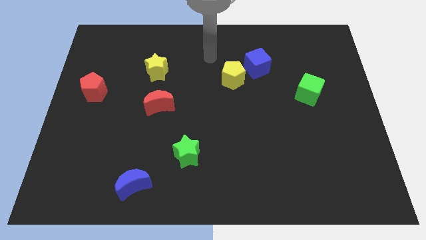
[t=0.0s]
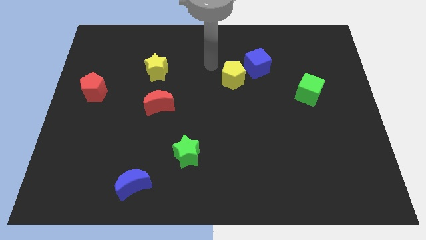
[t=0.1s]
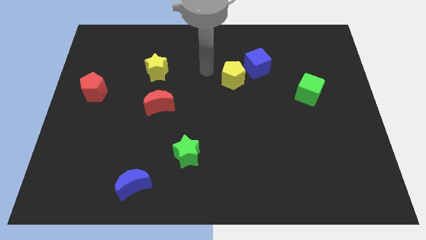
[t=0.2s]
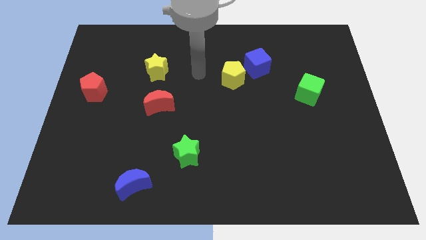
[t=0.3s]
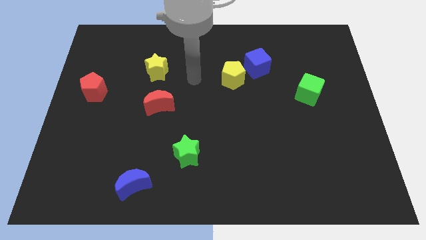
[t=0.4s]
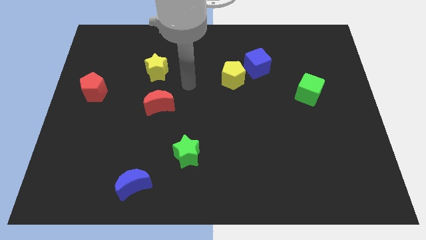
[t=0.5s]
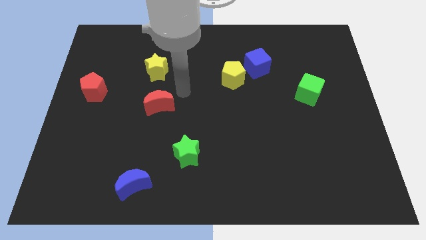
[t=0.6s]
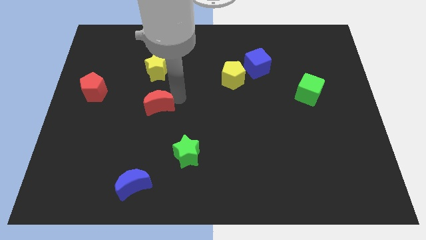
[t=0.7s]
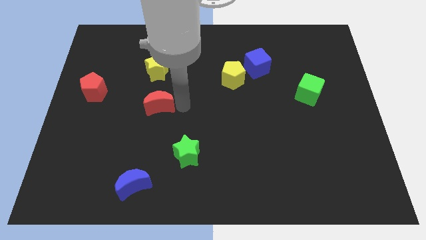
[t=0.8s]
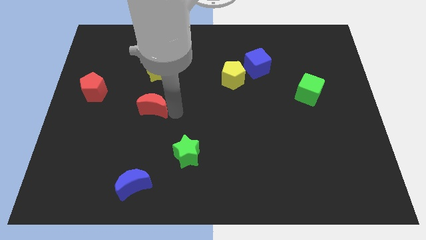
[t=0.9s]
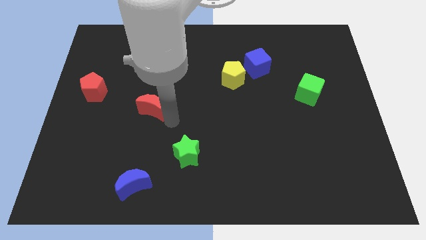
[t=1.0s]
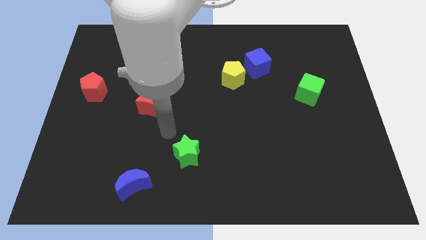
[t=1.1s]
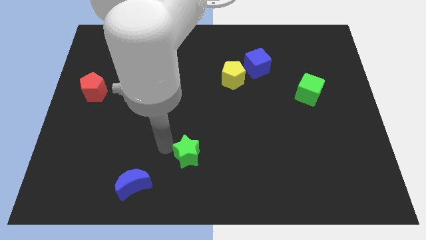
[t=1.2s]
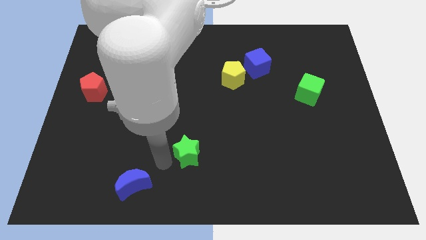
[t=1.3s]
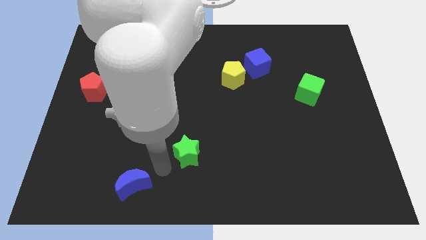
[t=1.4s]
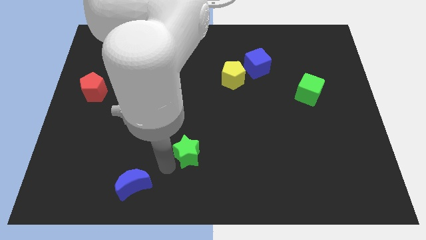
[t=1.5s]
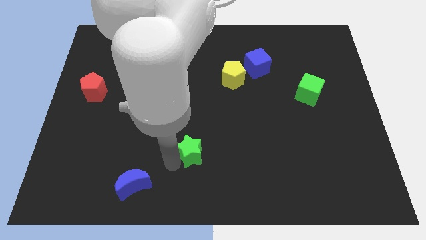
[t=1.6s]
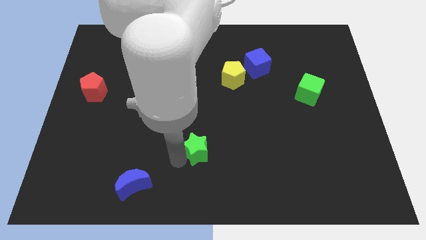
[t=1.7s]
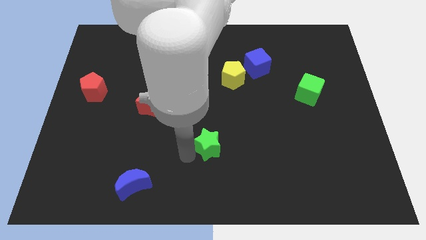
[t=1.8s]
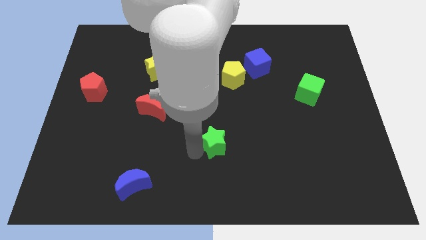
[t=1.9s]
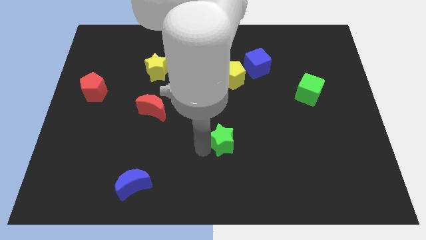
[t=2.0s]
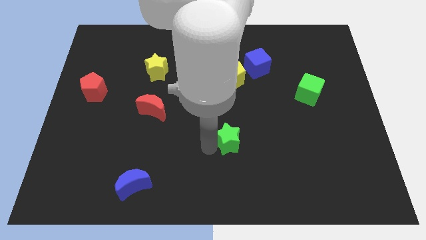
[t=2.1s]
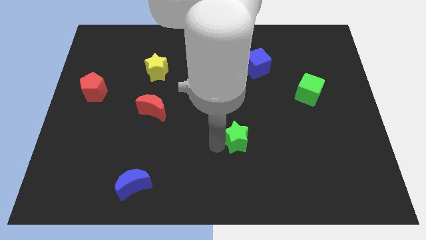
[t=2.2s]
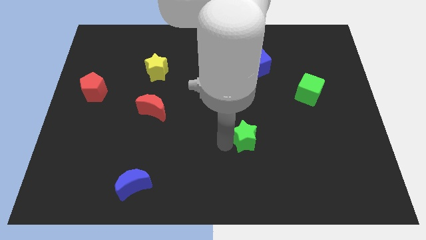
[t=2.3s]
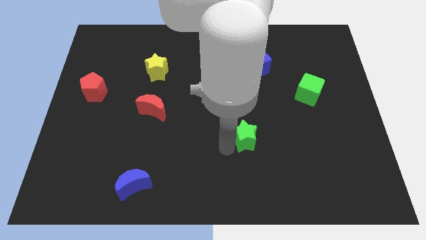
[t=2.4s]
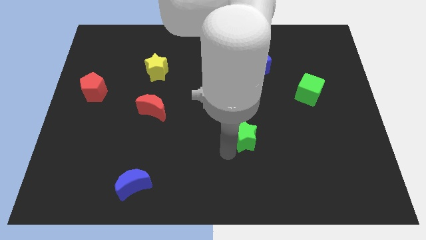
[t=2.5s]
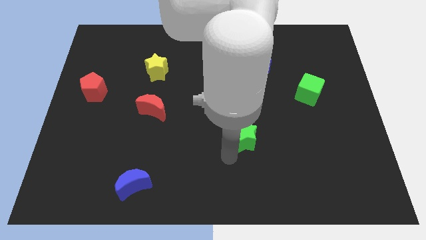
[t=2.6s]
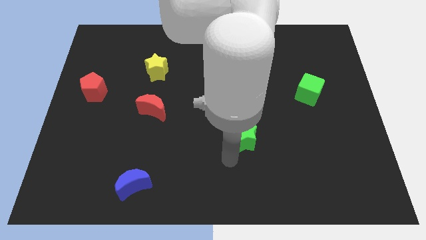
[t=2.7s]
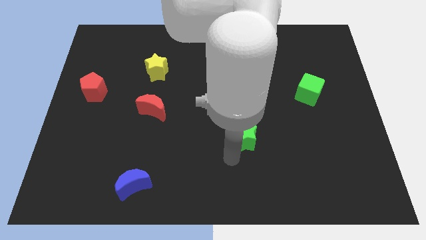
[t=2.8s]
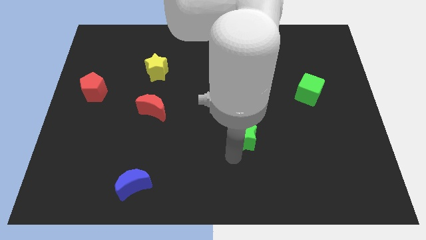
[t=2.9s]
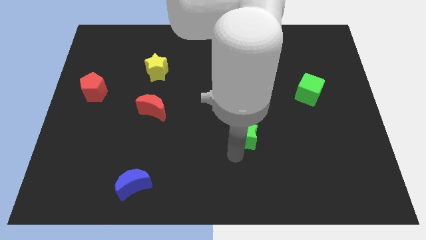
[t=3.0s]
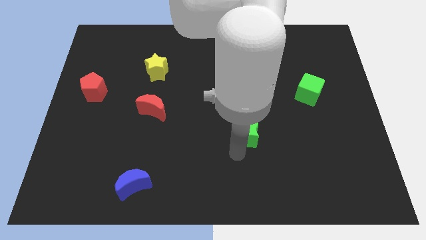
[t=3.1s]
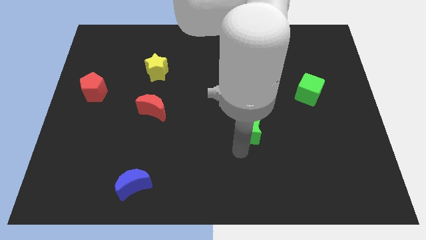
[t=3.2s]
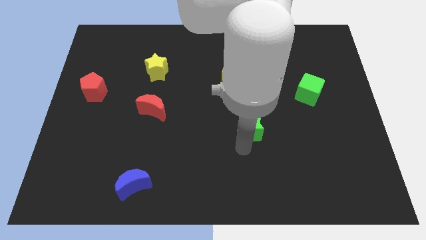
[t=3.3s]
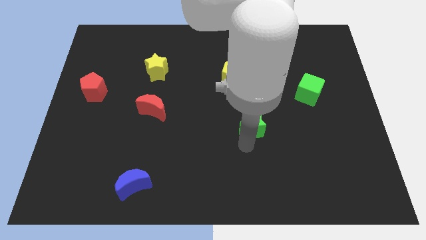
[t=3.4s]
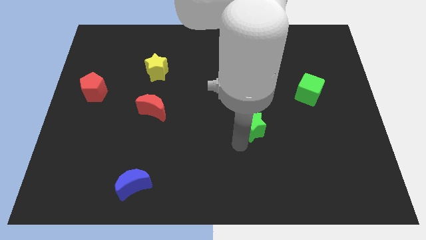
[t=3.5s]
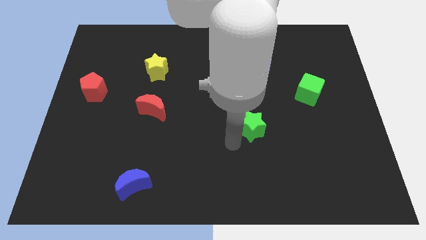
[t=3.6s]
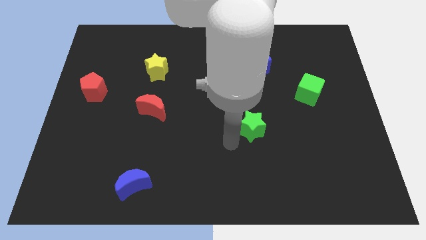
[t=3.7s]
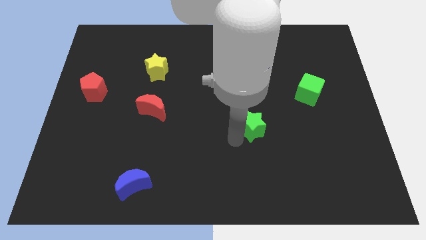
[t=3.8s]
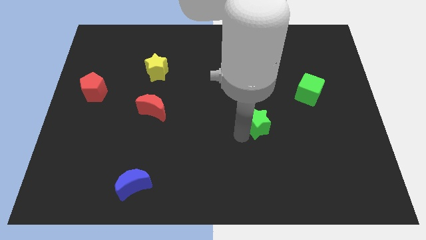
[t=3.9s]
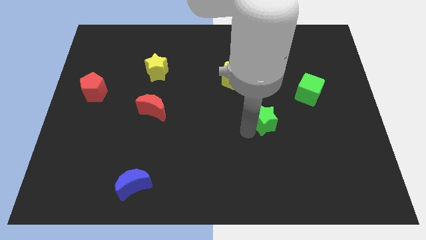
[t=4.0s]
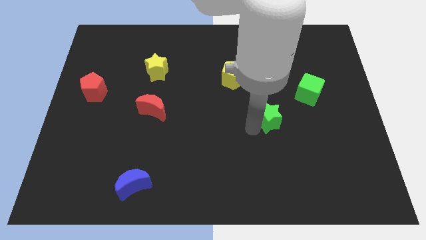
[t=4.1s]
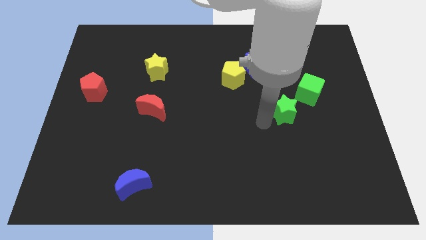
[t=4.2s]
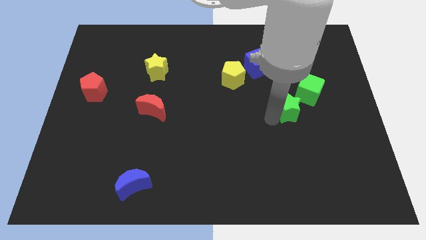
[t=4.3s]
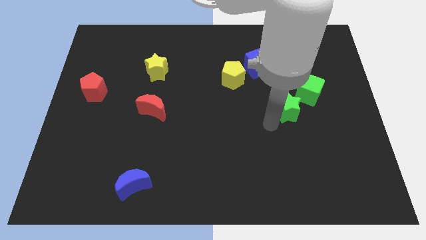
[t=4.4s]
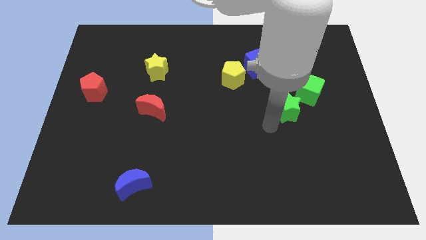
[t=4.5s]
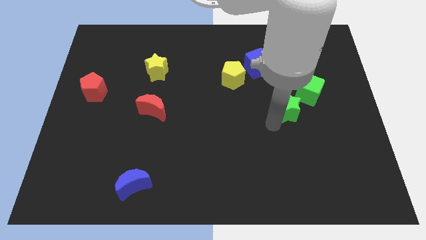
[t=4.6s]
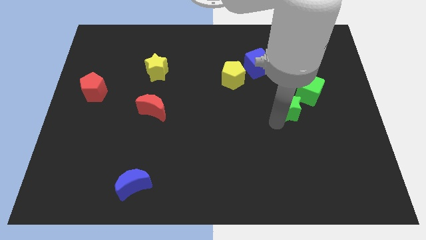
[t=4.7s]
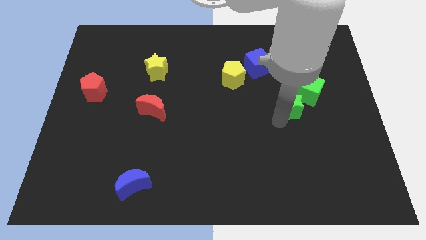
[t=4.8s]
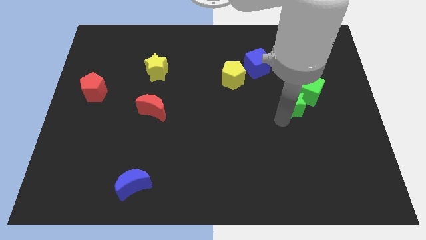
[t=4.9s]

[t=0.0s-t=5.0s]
move the green star to the green cube

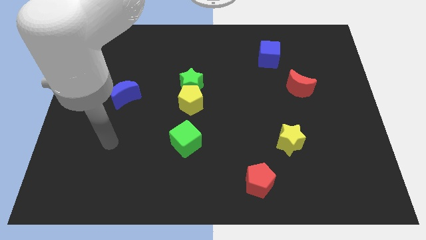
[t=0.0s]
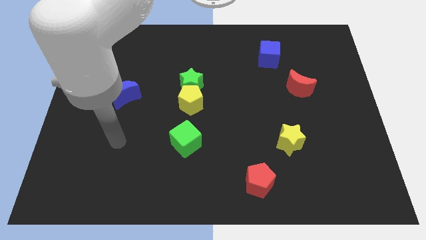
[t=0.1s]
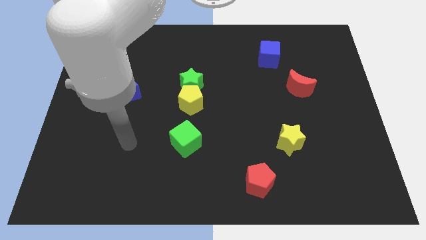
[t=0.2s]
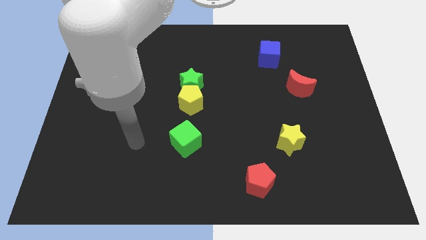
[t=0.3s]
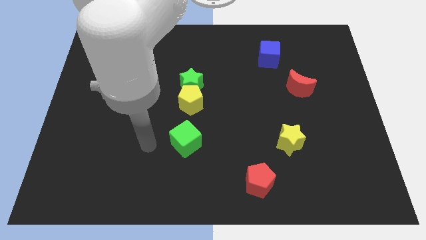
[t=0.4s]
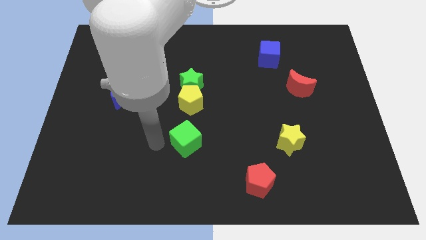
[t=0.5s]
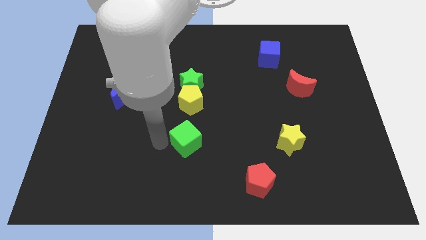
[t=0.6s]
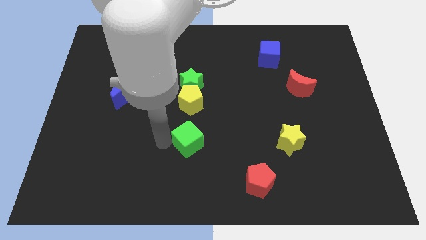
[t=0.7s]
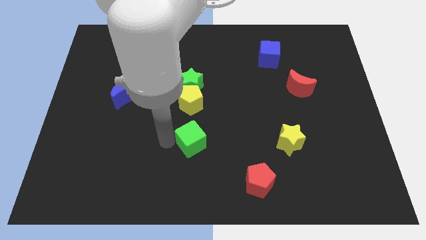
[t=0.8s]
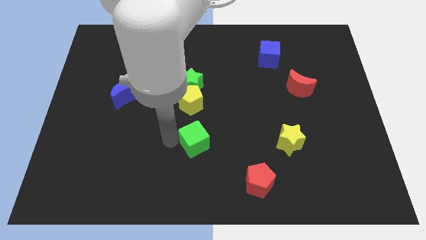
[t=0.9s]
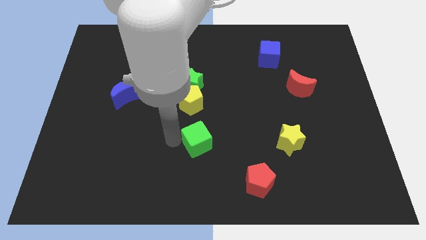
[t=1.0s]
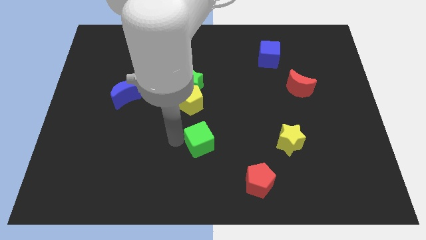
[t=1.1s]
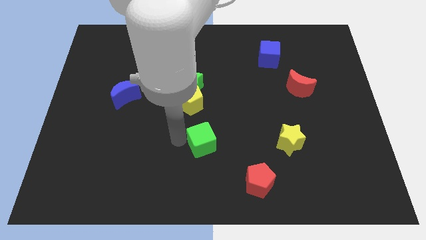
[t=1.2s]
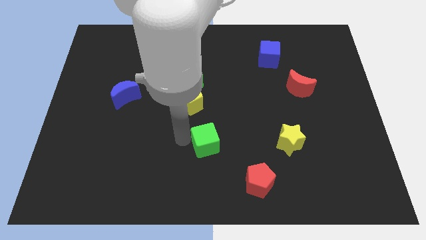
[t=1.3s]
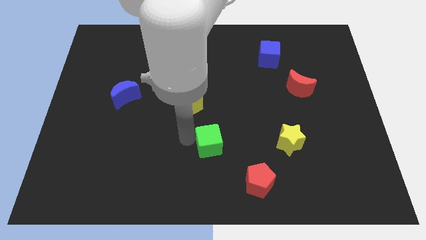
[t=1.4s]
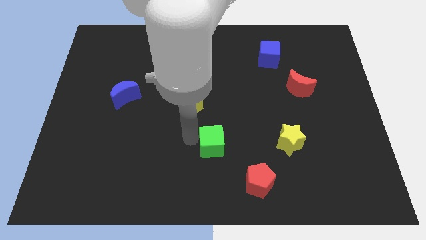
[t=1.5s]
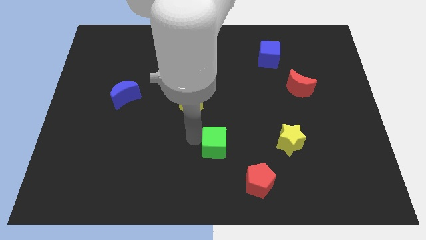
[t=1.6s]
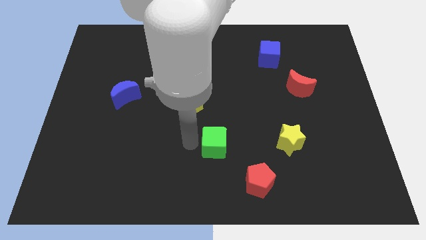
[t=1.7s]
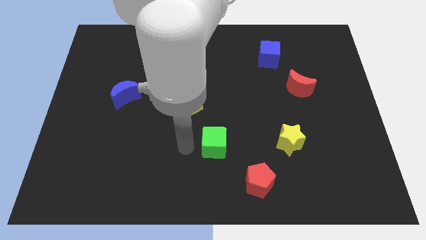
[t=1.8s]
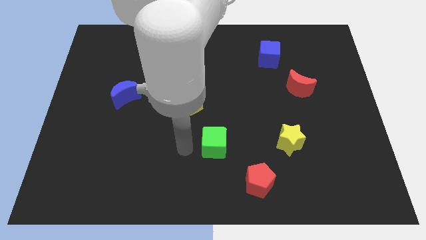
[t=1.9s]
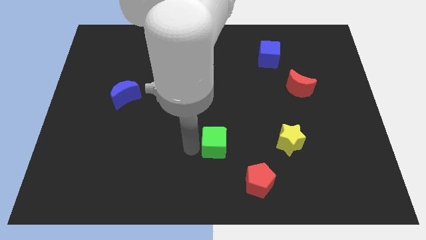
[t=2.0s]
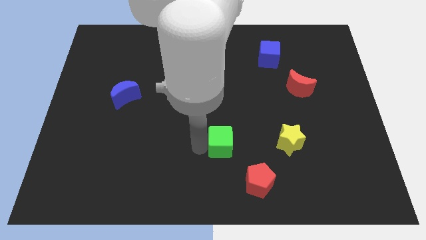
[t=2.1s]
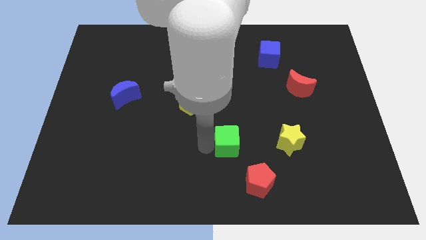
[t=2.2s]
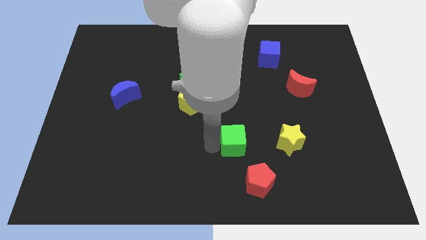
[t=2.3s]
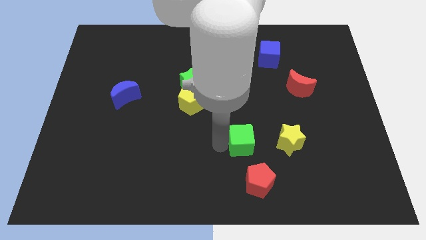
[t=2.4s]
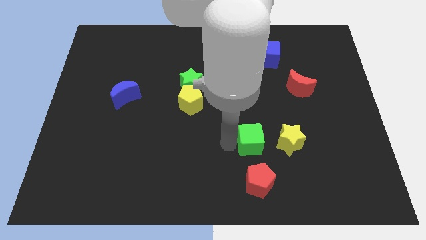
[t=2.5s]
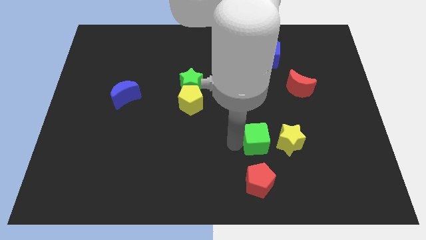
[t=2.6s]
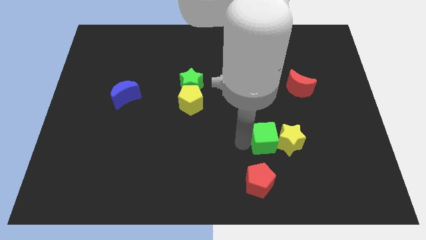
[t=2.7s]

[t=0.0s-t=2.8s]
push the green cube towards the yellow star
